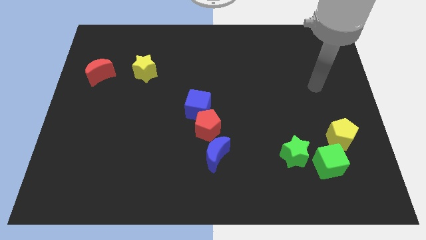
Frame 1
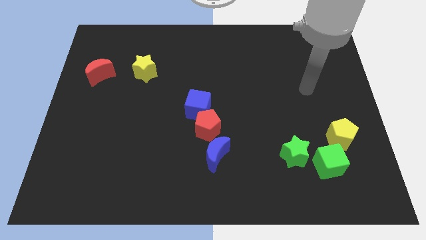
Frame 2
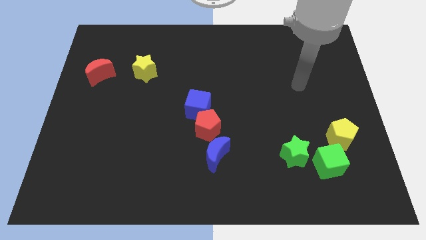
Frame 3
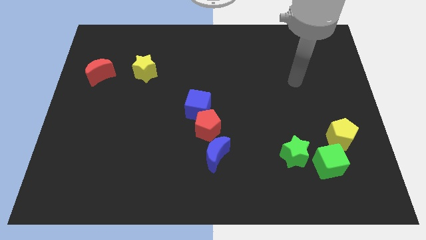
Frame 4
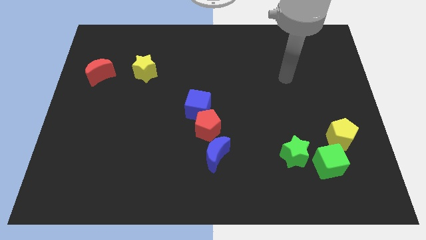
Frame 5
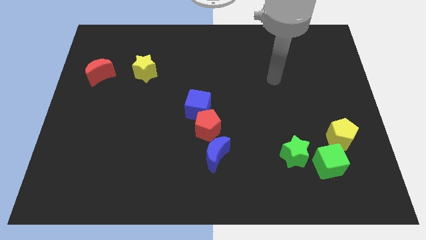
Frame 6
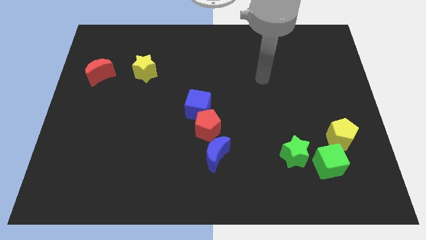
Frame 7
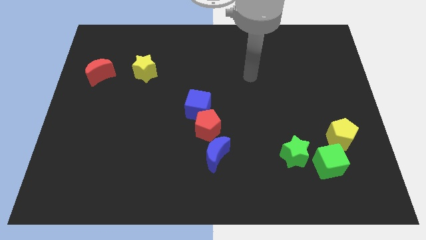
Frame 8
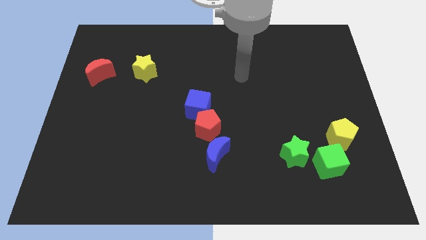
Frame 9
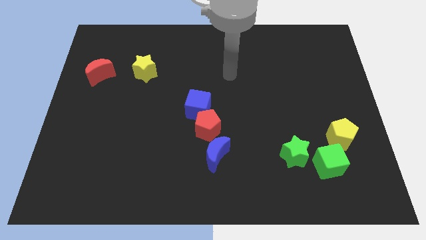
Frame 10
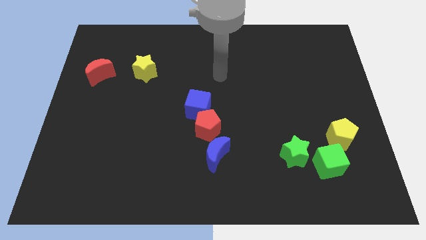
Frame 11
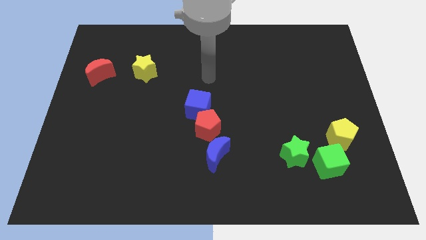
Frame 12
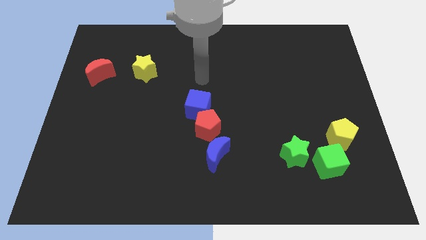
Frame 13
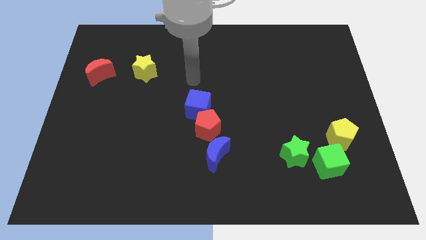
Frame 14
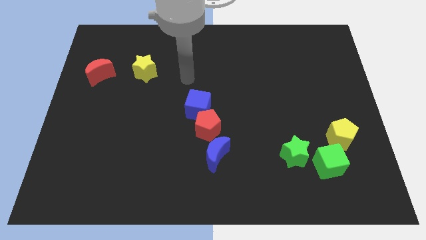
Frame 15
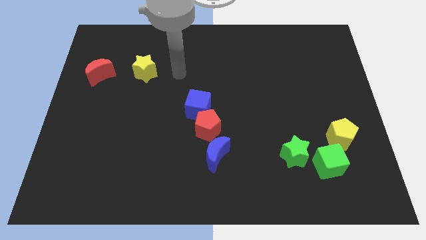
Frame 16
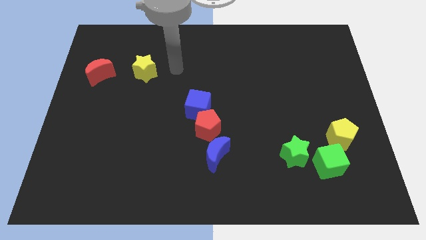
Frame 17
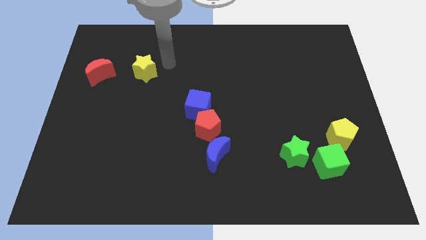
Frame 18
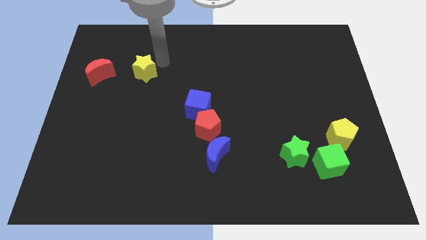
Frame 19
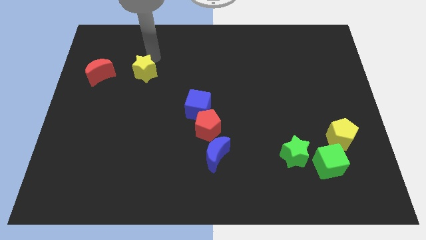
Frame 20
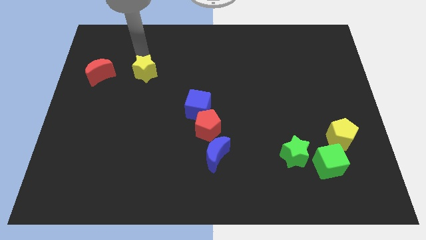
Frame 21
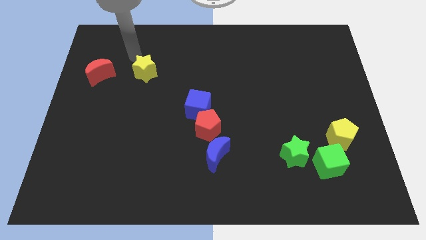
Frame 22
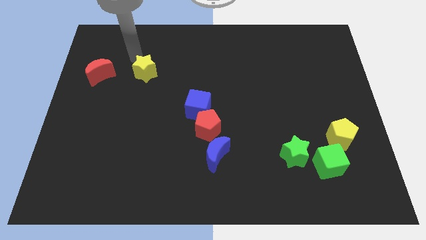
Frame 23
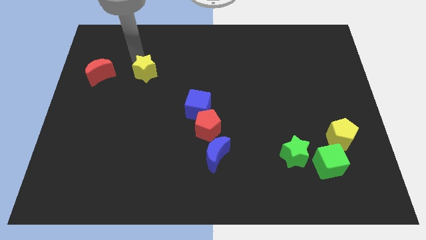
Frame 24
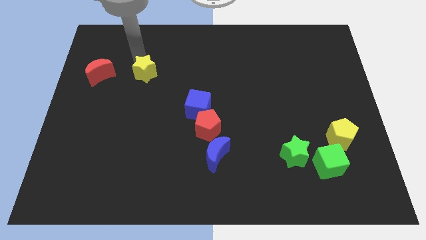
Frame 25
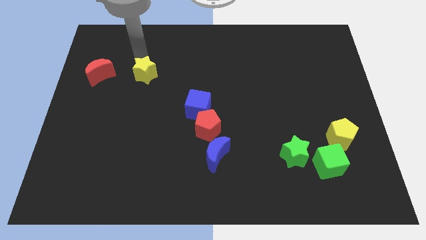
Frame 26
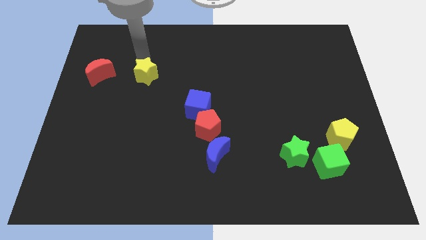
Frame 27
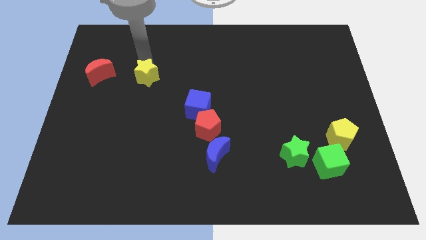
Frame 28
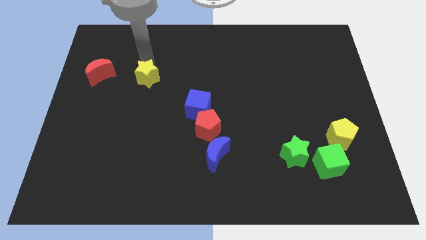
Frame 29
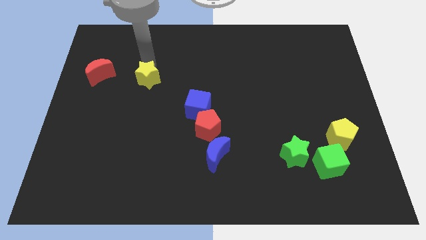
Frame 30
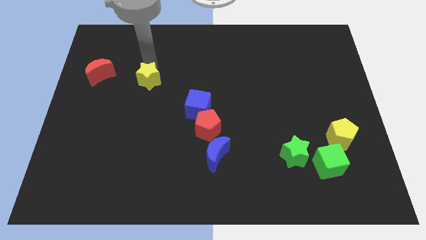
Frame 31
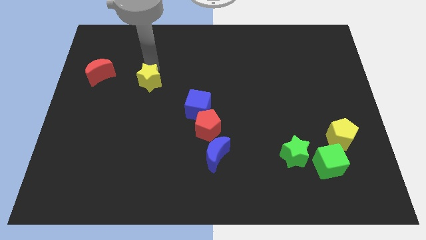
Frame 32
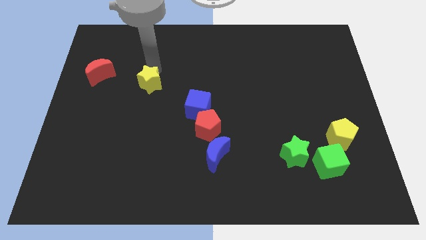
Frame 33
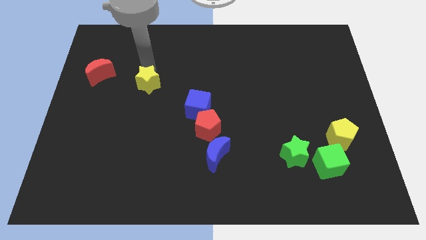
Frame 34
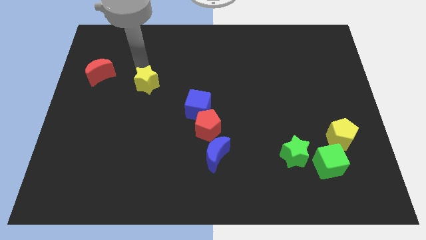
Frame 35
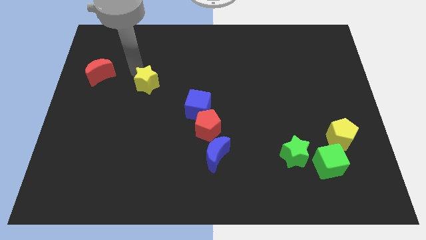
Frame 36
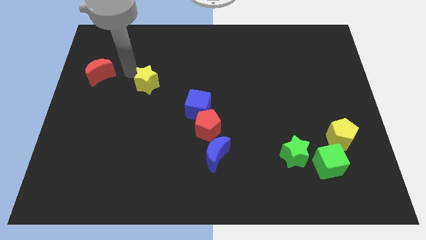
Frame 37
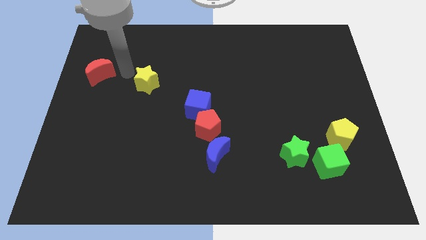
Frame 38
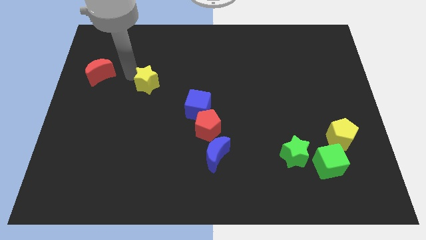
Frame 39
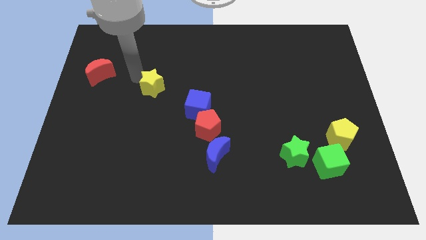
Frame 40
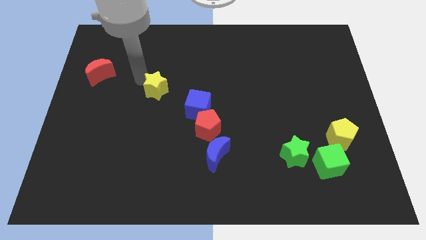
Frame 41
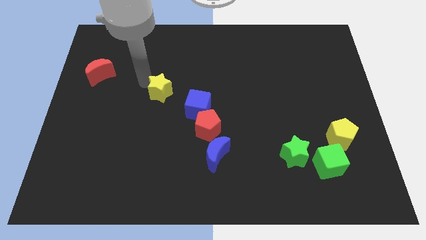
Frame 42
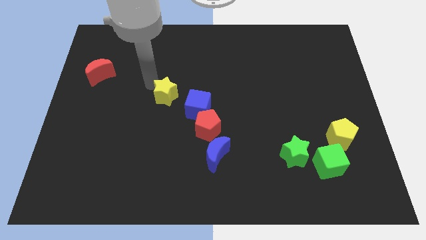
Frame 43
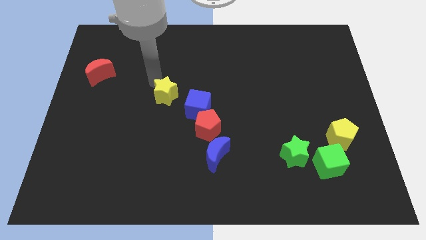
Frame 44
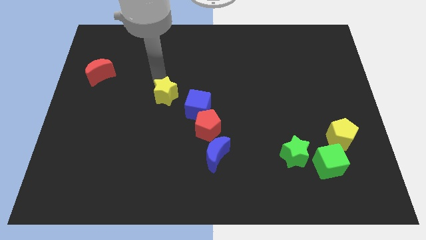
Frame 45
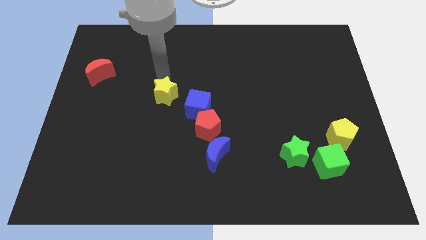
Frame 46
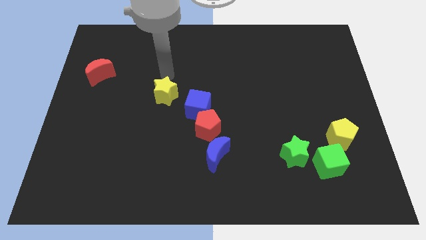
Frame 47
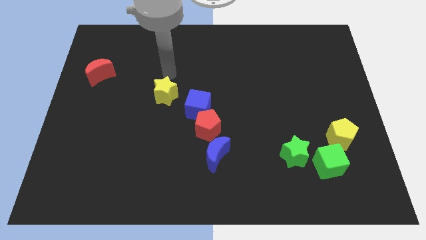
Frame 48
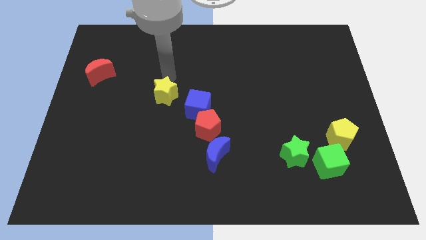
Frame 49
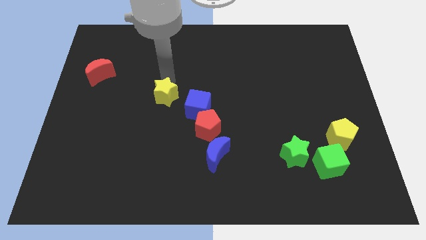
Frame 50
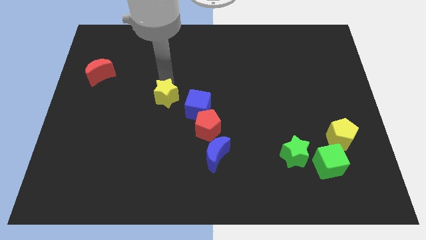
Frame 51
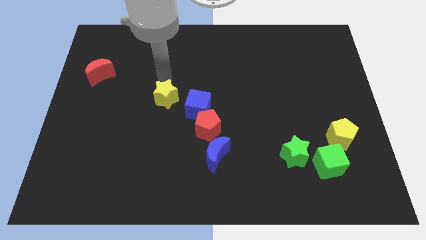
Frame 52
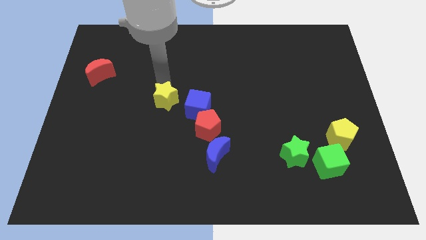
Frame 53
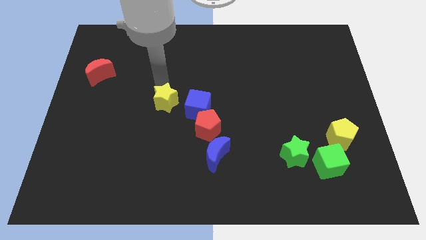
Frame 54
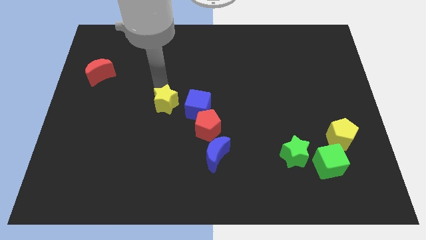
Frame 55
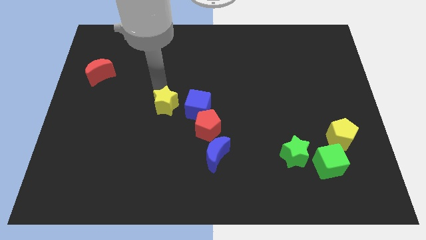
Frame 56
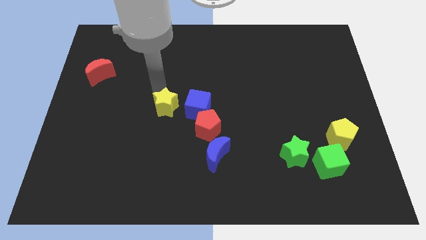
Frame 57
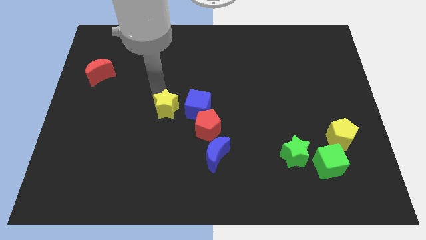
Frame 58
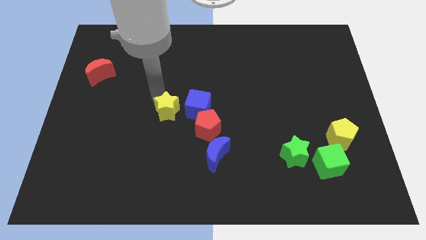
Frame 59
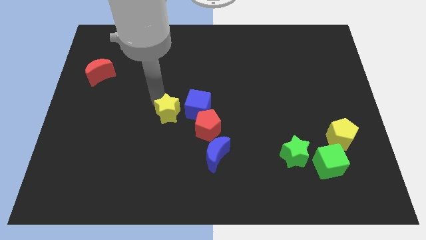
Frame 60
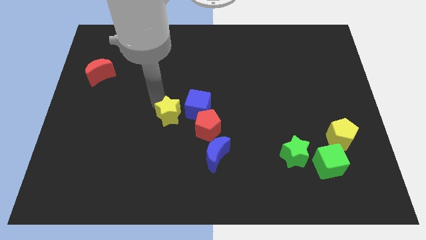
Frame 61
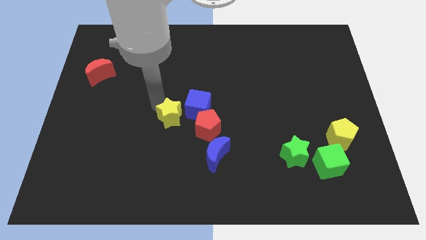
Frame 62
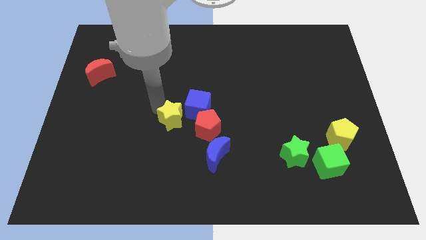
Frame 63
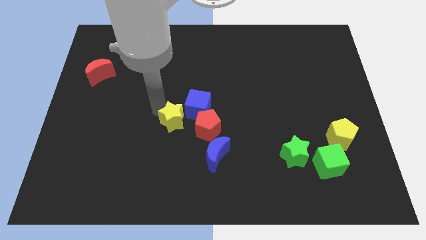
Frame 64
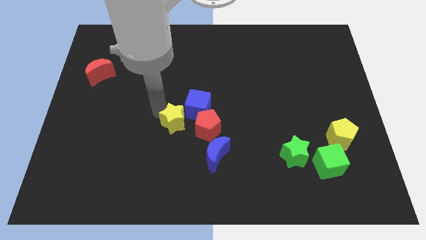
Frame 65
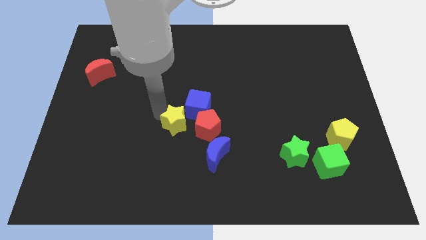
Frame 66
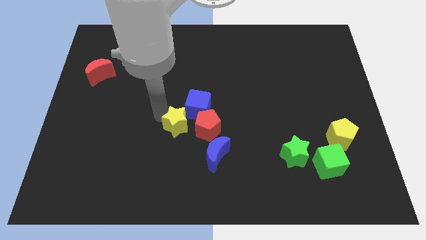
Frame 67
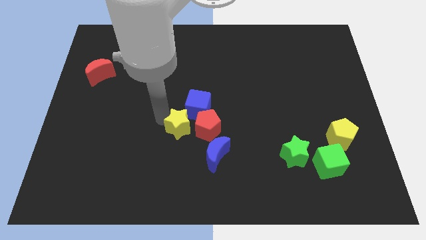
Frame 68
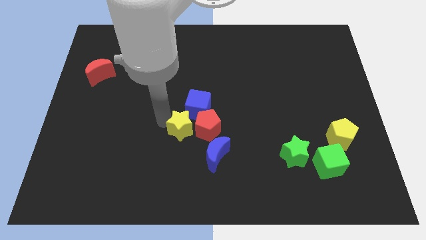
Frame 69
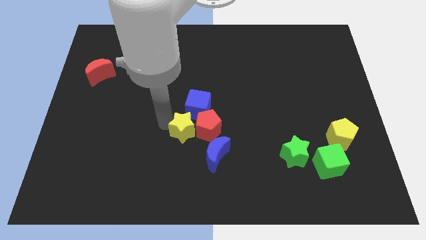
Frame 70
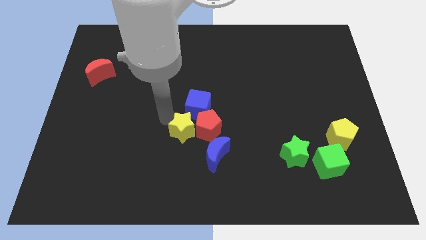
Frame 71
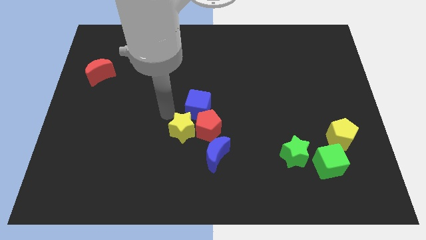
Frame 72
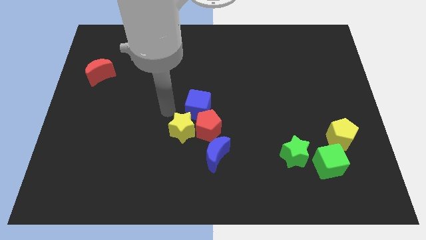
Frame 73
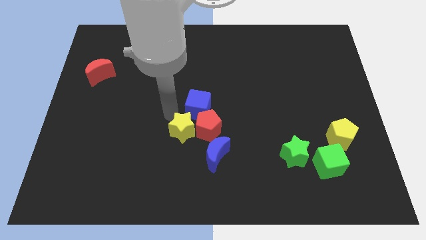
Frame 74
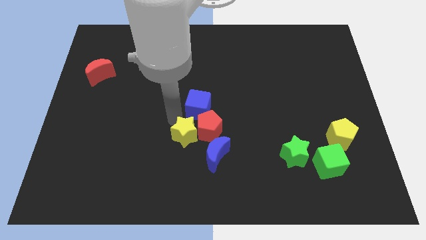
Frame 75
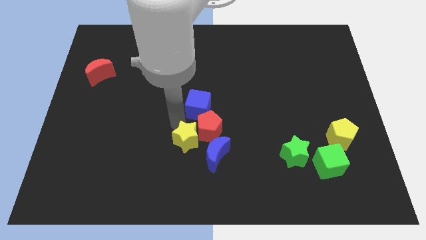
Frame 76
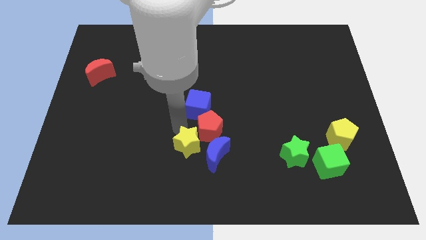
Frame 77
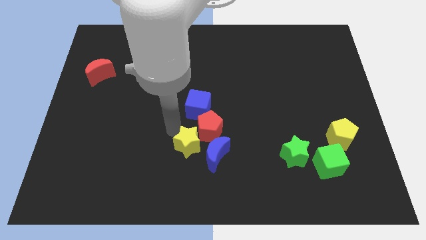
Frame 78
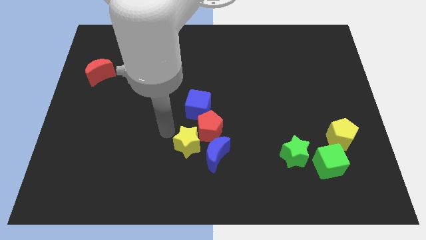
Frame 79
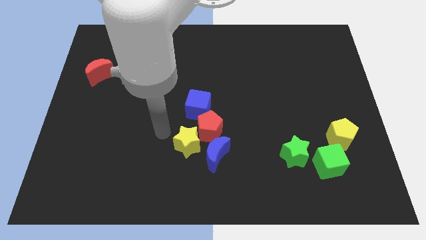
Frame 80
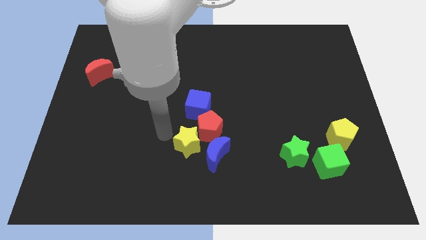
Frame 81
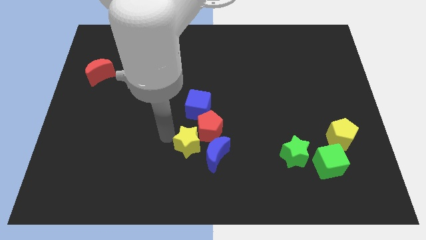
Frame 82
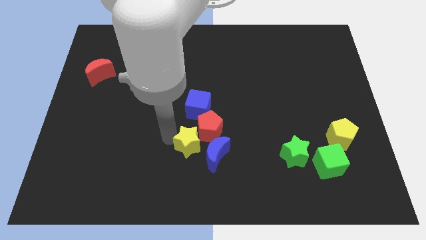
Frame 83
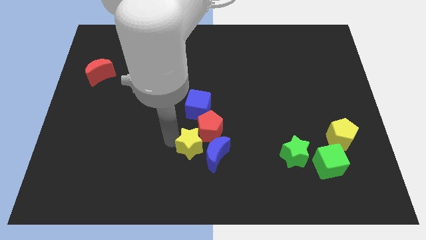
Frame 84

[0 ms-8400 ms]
put the yellow star close to the blue moon
